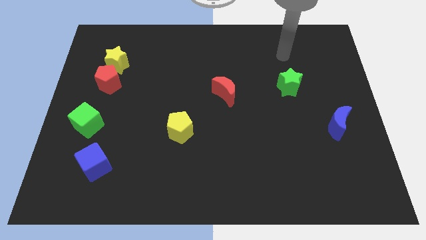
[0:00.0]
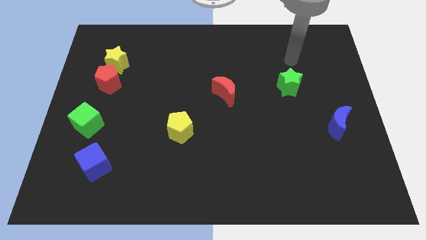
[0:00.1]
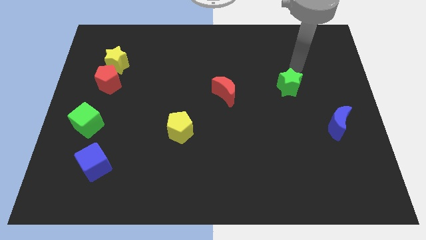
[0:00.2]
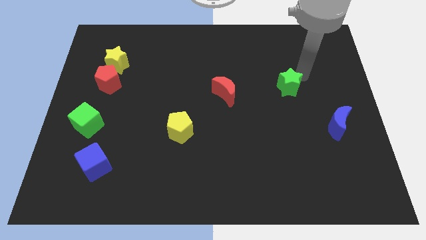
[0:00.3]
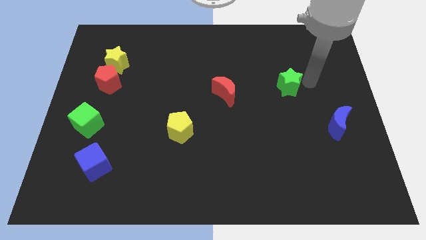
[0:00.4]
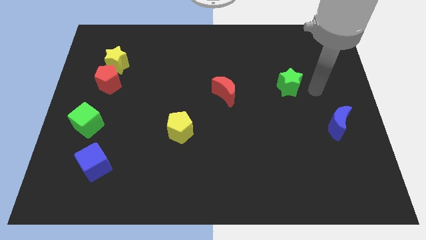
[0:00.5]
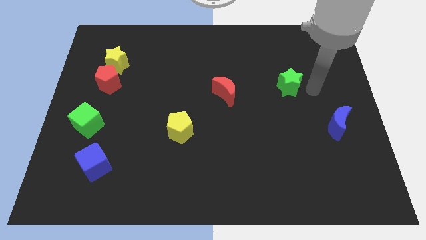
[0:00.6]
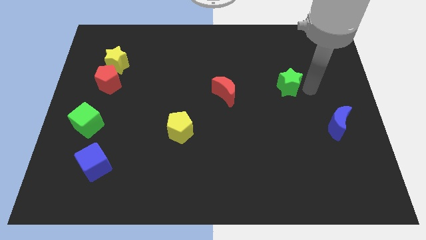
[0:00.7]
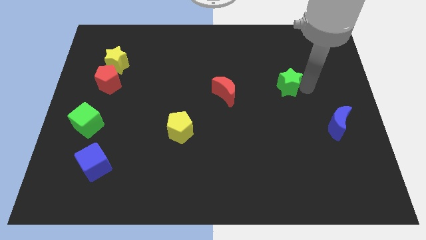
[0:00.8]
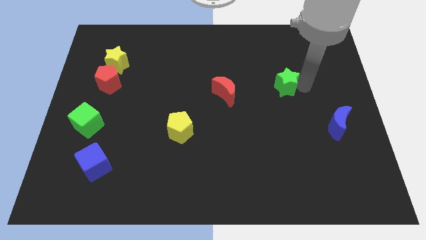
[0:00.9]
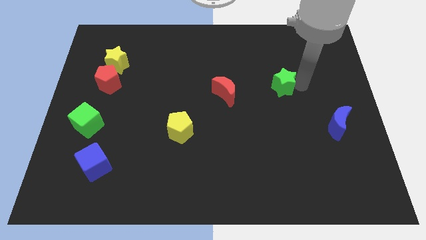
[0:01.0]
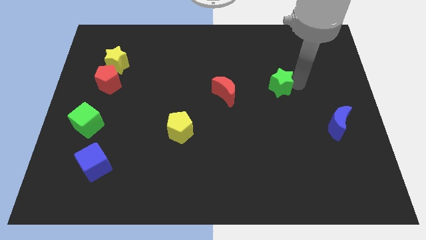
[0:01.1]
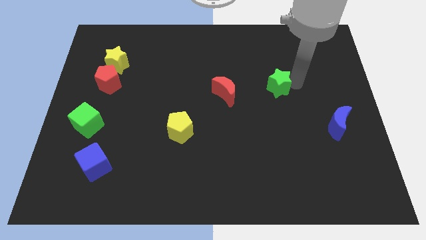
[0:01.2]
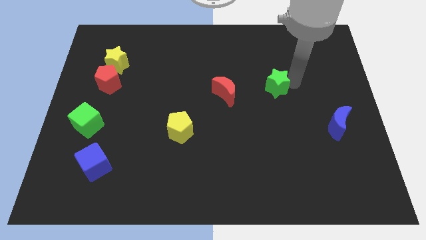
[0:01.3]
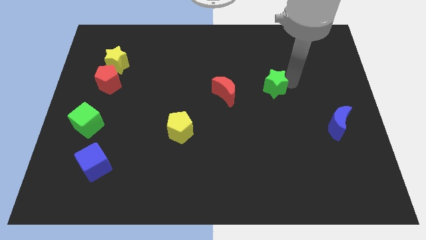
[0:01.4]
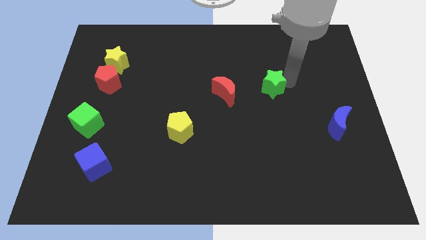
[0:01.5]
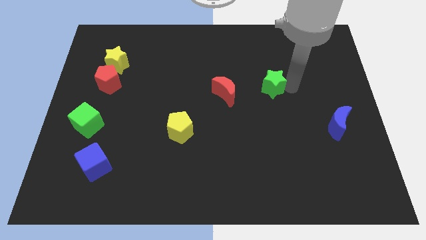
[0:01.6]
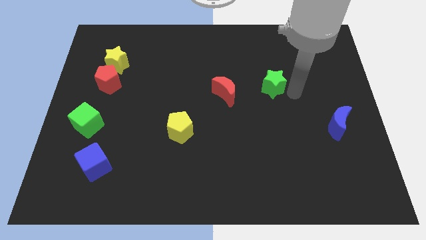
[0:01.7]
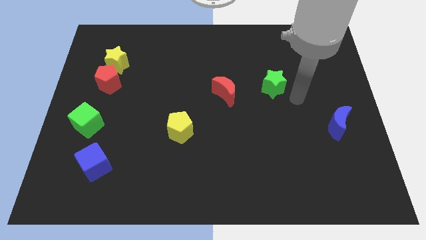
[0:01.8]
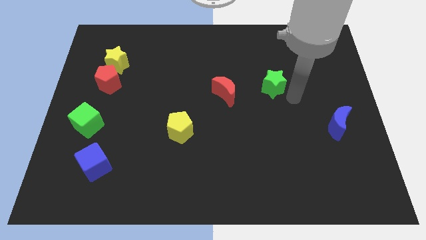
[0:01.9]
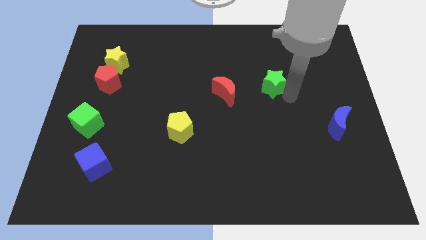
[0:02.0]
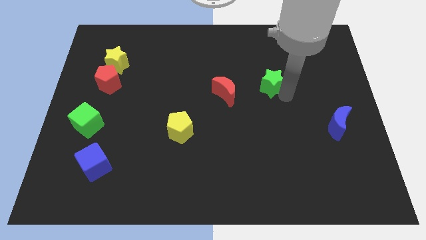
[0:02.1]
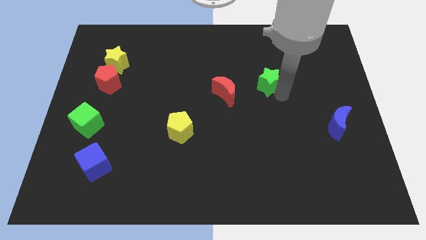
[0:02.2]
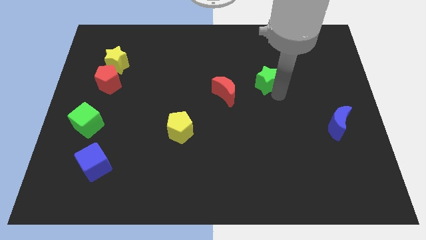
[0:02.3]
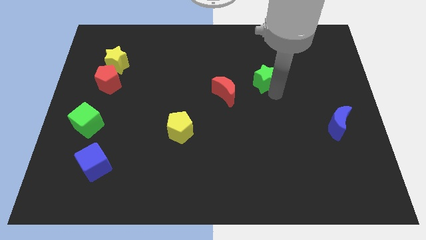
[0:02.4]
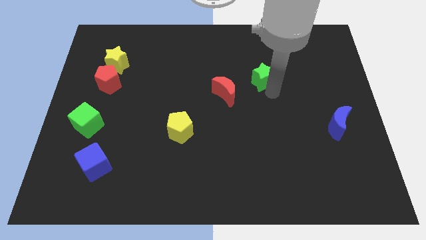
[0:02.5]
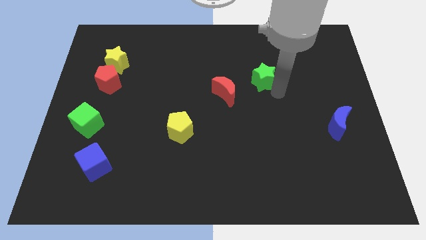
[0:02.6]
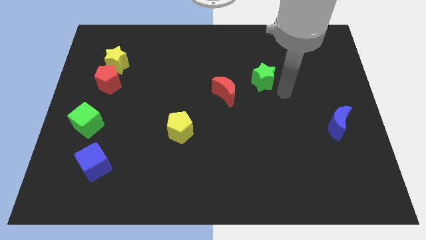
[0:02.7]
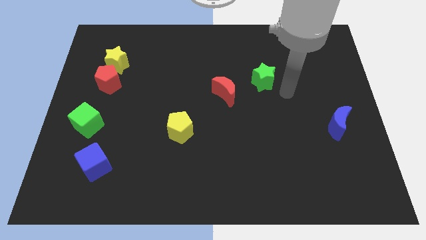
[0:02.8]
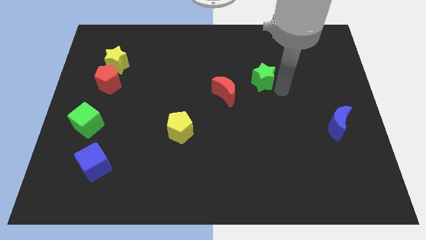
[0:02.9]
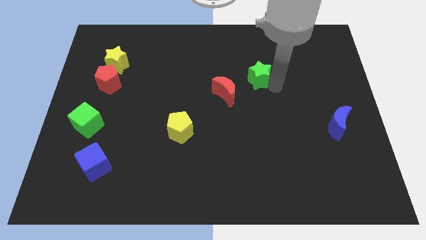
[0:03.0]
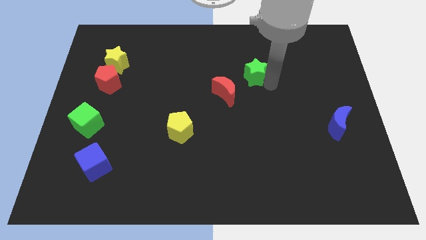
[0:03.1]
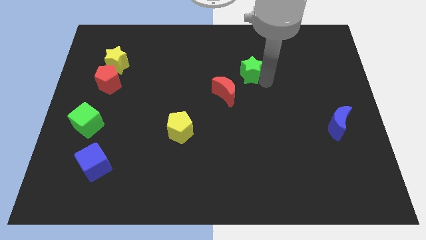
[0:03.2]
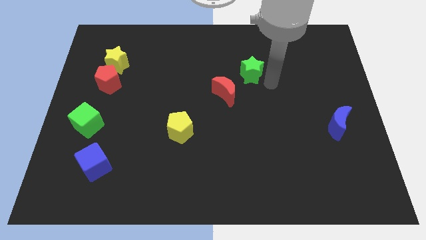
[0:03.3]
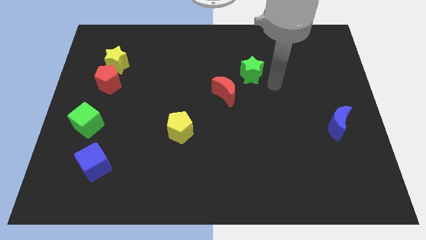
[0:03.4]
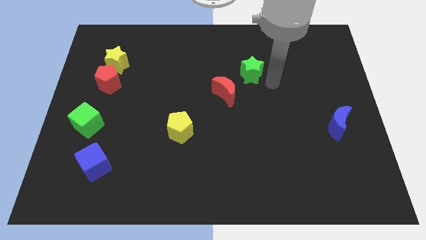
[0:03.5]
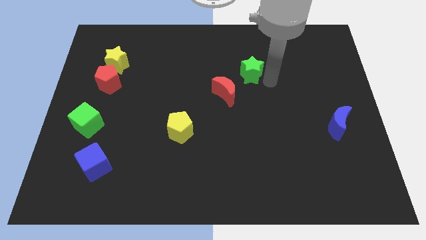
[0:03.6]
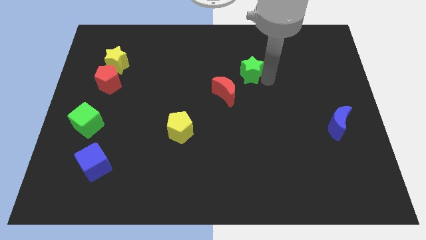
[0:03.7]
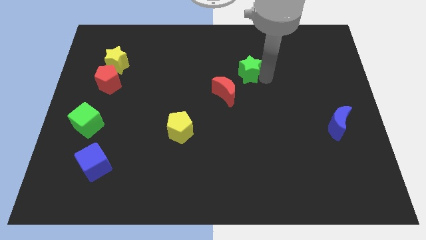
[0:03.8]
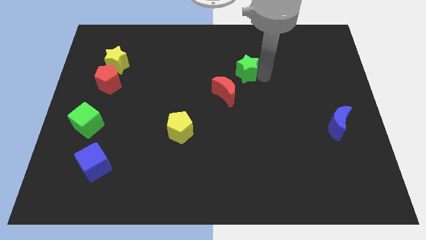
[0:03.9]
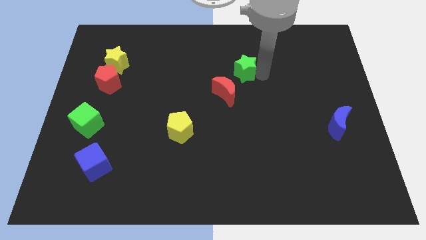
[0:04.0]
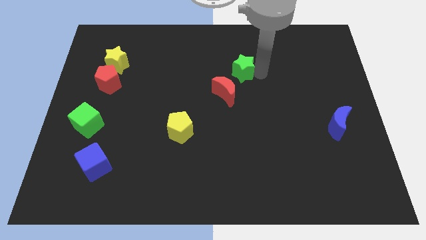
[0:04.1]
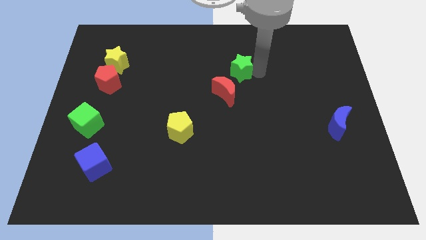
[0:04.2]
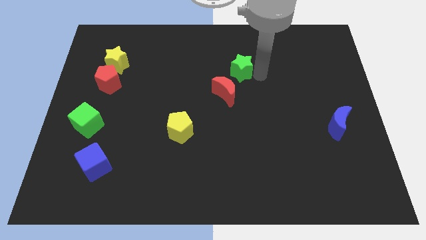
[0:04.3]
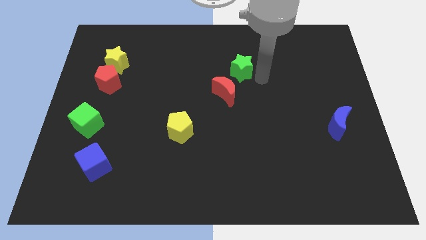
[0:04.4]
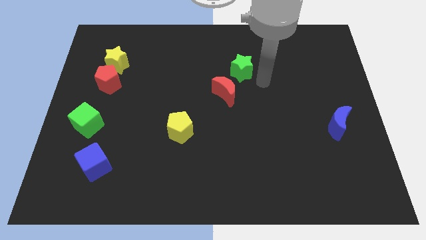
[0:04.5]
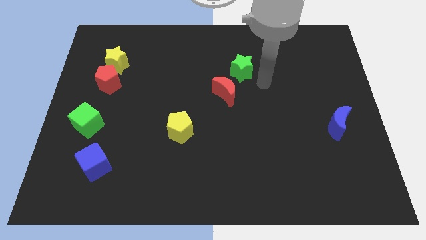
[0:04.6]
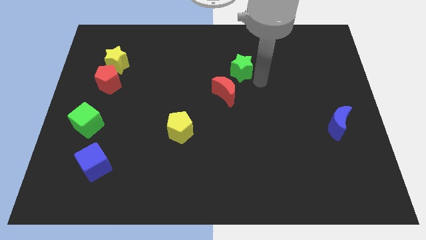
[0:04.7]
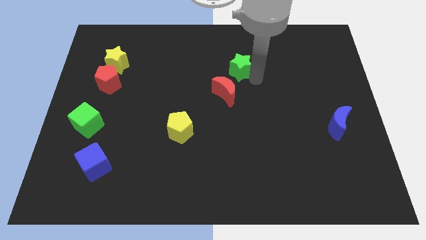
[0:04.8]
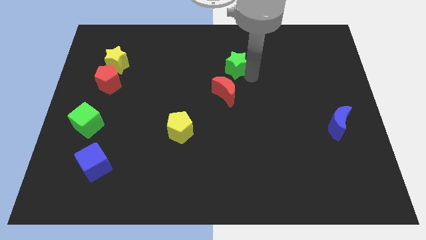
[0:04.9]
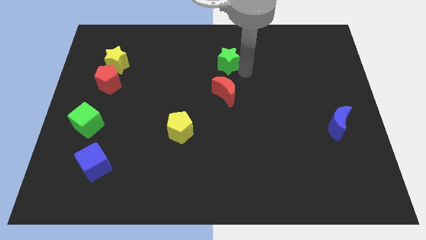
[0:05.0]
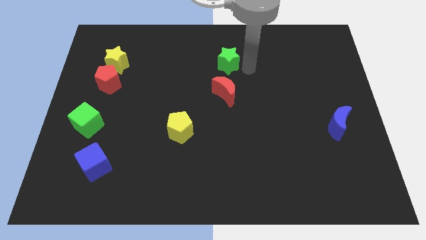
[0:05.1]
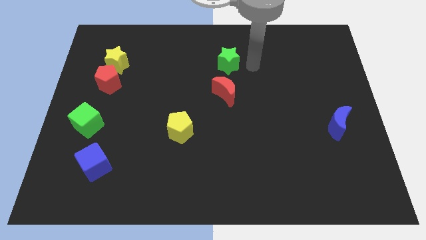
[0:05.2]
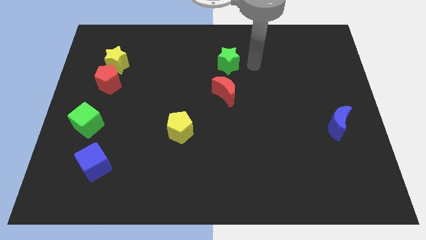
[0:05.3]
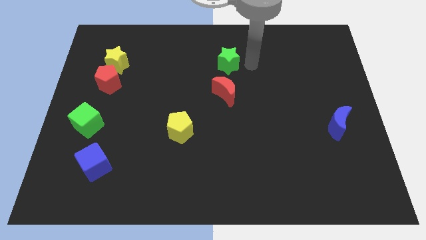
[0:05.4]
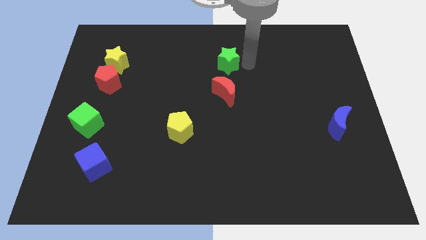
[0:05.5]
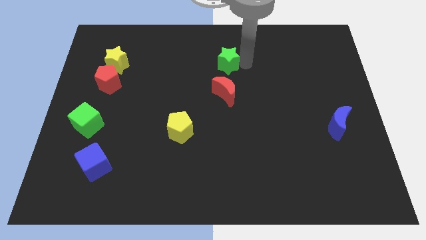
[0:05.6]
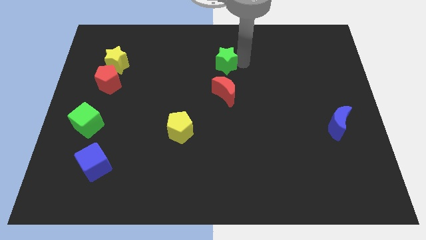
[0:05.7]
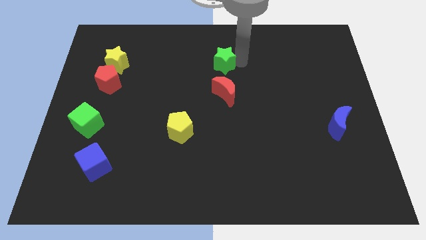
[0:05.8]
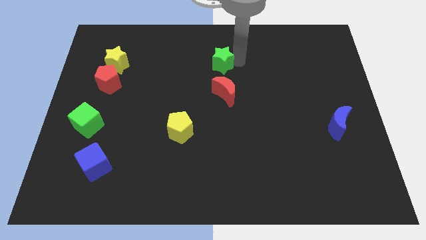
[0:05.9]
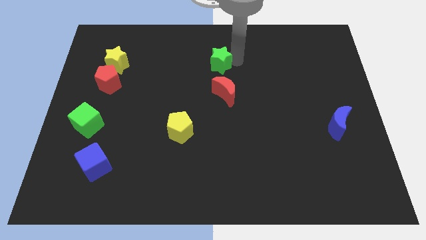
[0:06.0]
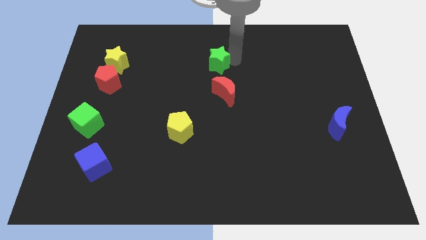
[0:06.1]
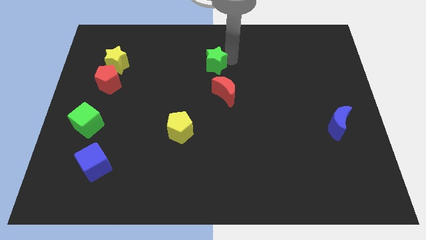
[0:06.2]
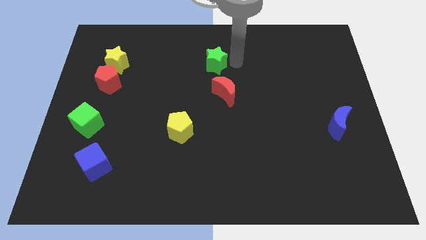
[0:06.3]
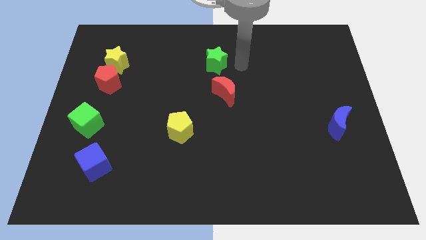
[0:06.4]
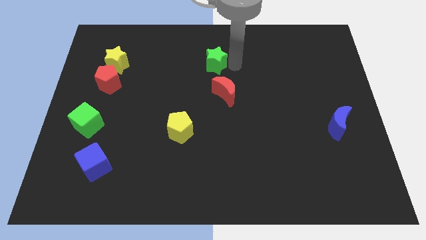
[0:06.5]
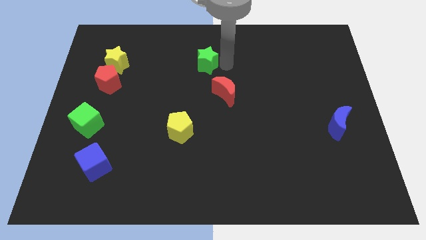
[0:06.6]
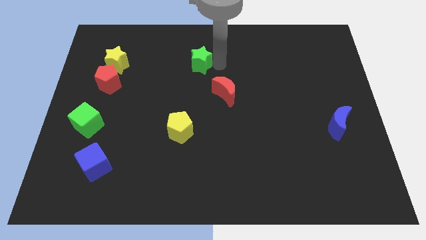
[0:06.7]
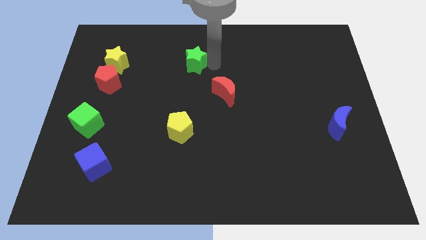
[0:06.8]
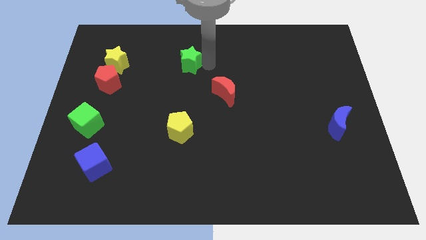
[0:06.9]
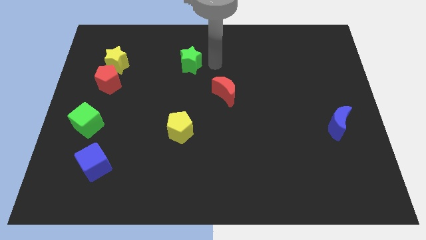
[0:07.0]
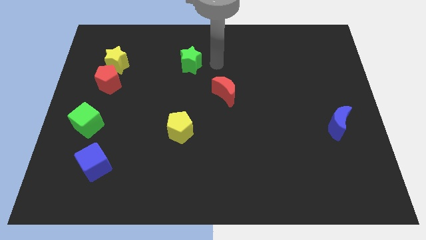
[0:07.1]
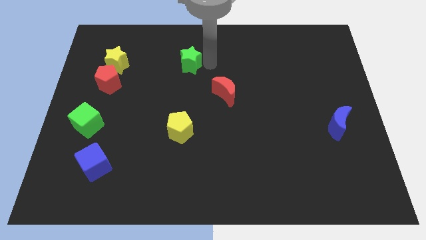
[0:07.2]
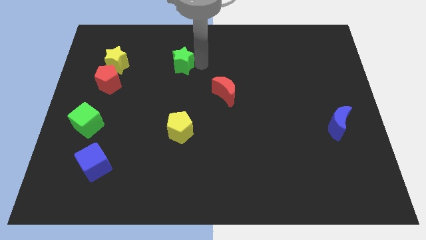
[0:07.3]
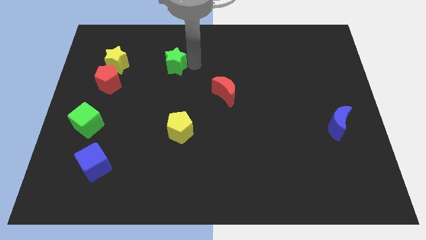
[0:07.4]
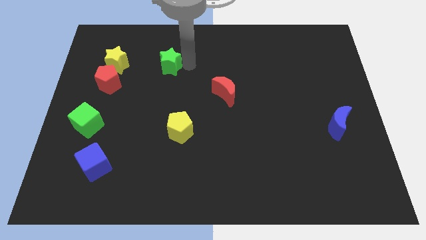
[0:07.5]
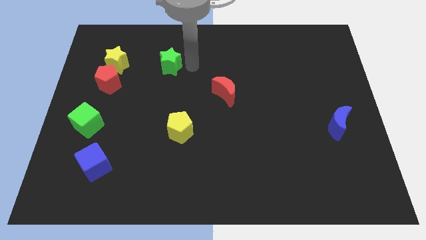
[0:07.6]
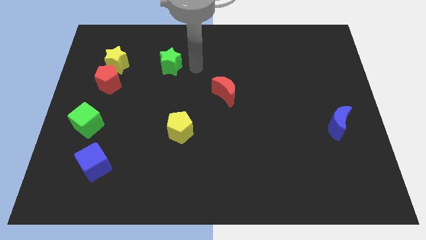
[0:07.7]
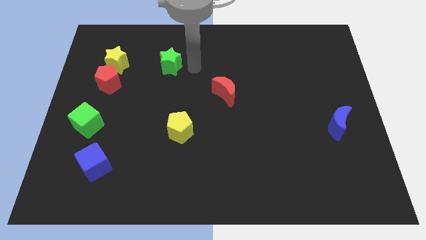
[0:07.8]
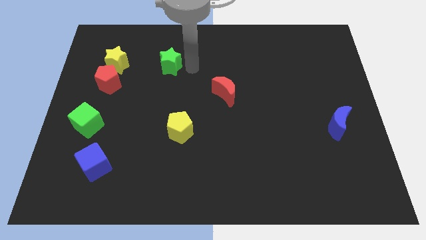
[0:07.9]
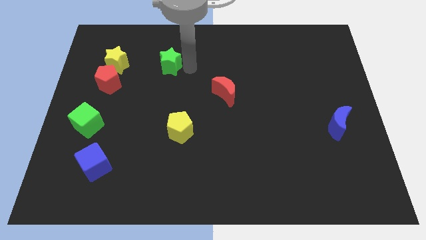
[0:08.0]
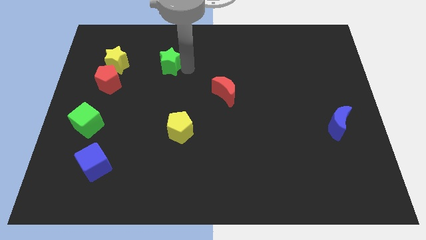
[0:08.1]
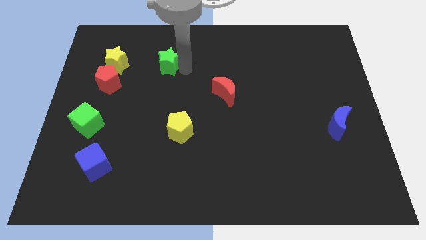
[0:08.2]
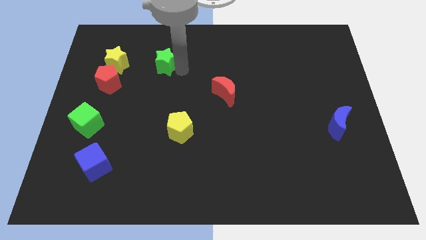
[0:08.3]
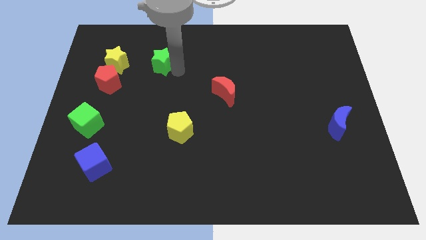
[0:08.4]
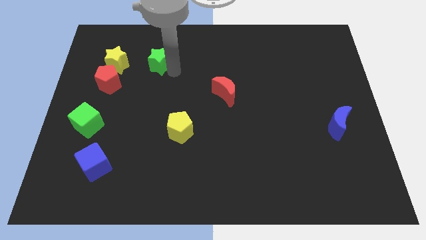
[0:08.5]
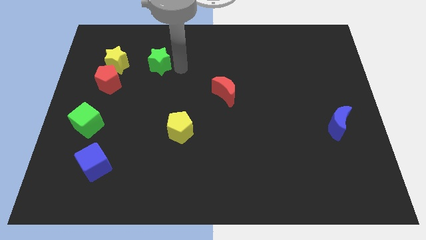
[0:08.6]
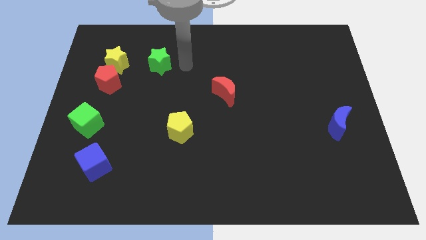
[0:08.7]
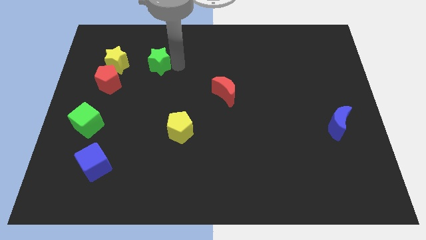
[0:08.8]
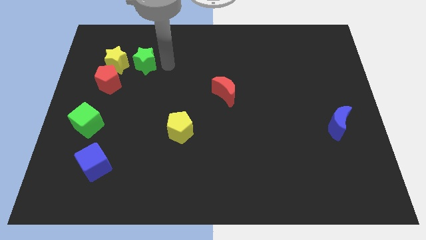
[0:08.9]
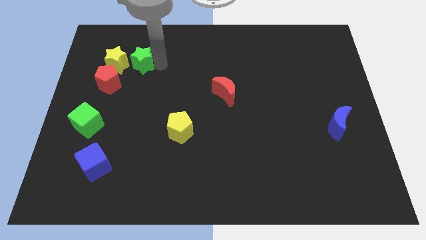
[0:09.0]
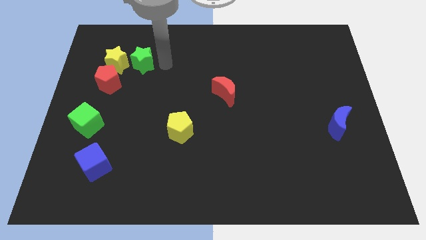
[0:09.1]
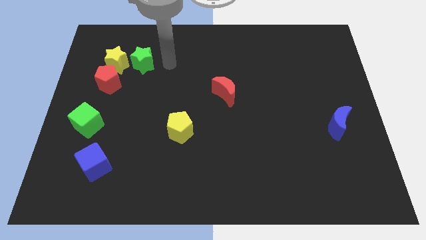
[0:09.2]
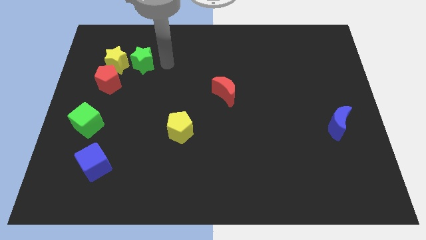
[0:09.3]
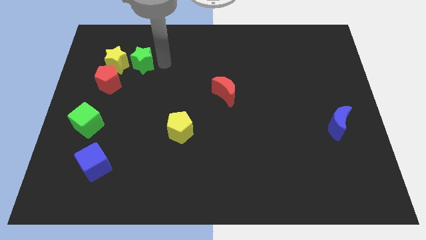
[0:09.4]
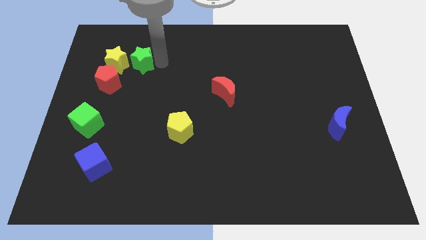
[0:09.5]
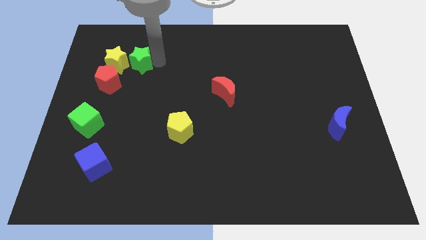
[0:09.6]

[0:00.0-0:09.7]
put the green star close to the yellow star
